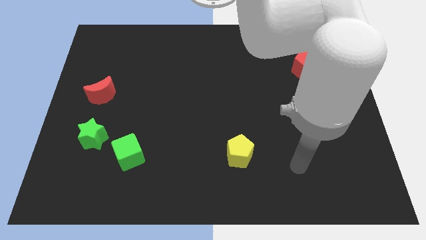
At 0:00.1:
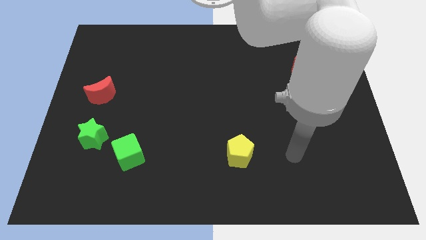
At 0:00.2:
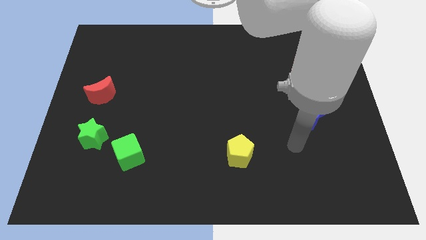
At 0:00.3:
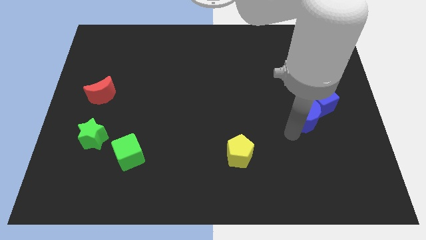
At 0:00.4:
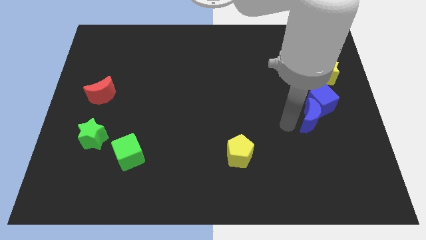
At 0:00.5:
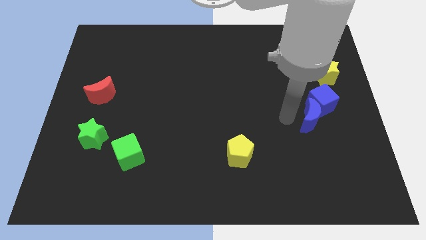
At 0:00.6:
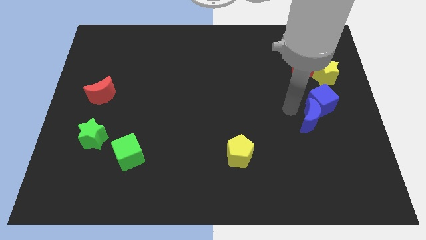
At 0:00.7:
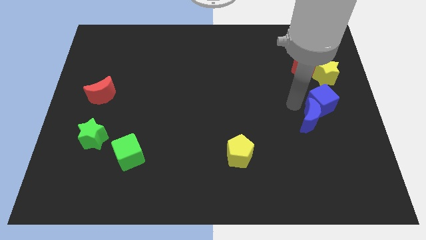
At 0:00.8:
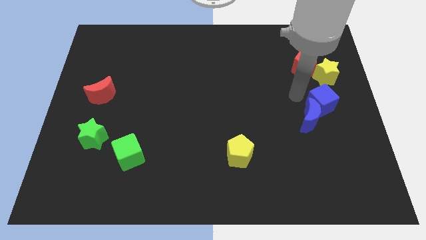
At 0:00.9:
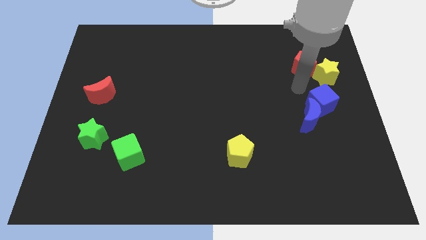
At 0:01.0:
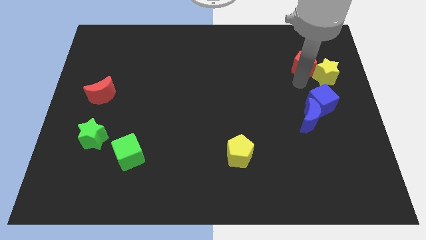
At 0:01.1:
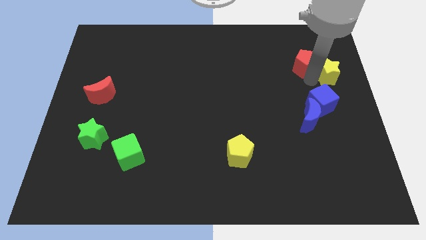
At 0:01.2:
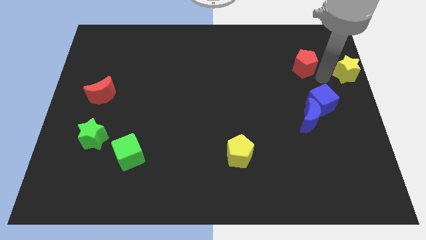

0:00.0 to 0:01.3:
move the red pentagon away from the yellow star

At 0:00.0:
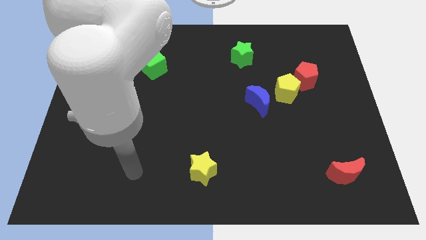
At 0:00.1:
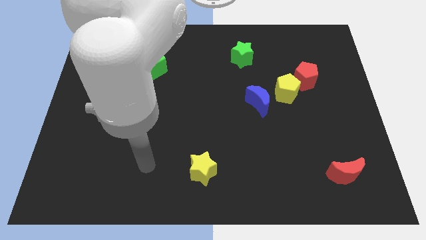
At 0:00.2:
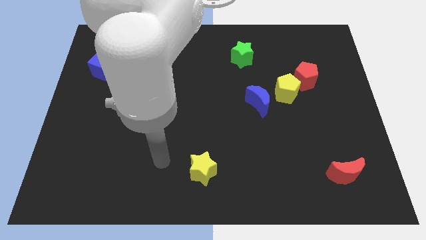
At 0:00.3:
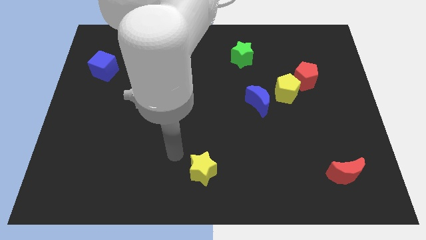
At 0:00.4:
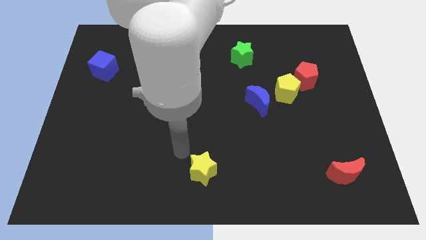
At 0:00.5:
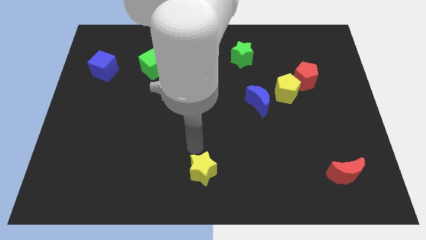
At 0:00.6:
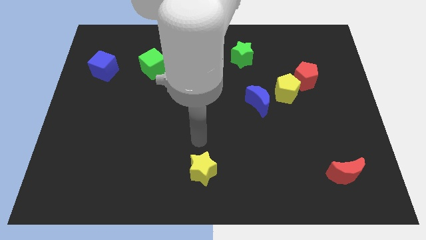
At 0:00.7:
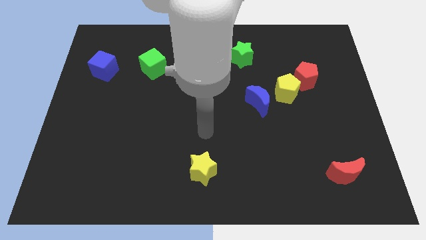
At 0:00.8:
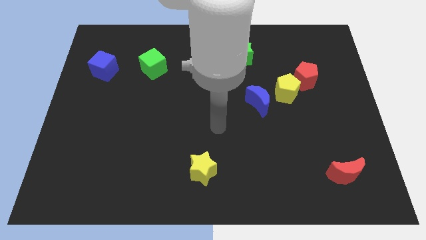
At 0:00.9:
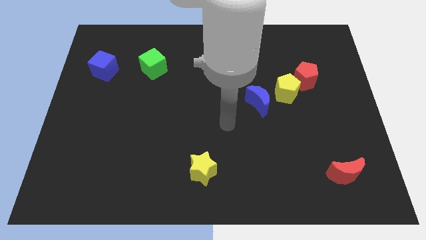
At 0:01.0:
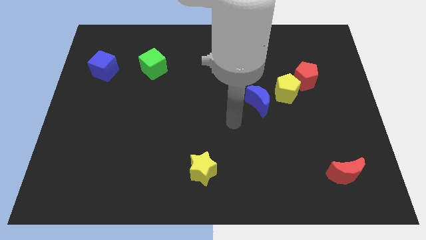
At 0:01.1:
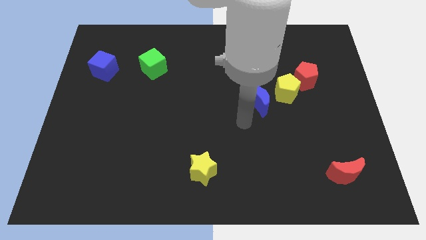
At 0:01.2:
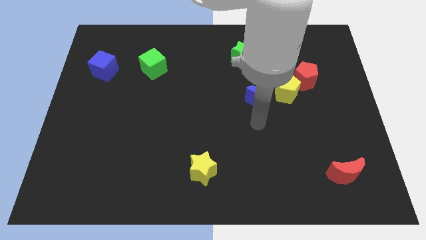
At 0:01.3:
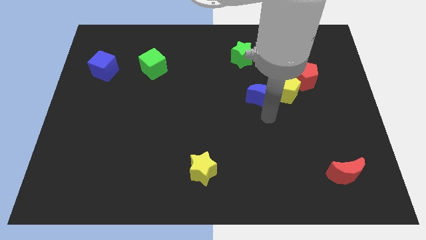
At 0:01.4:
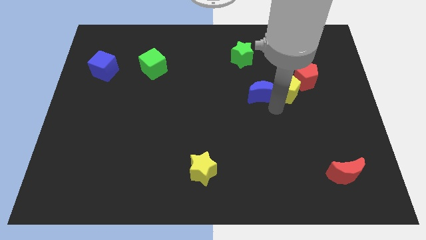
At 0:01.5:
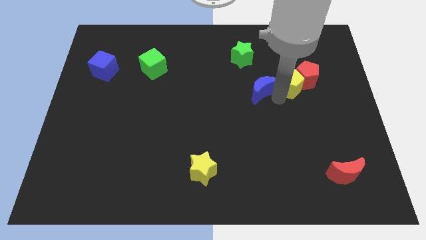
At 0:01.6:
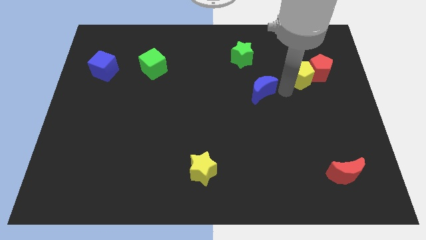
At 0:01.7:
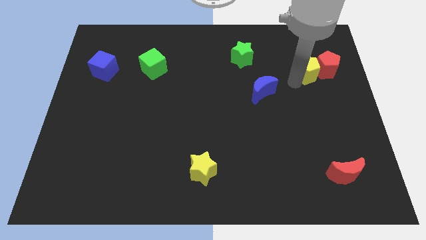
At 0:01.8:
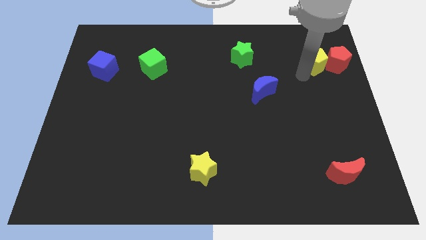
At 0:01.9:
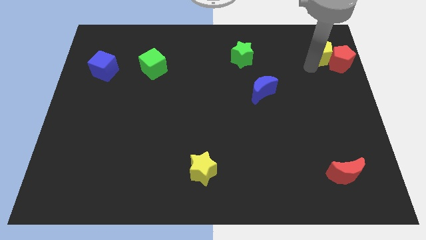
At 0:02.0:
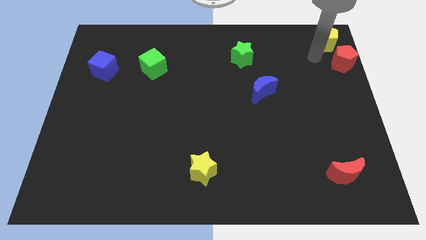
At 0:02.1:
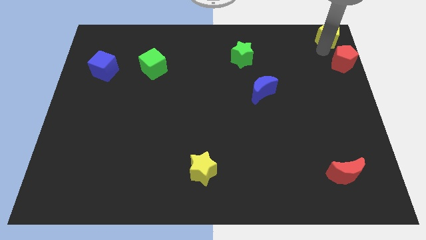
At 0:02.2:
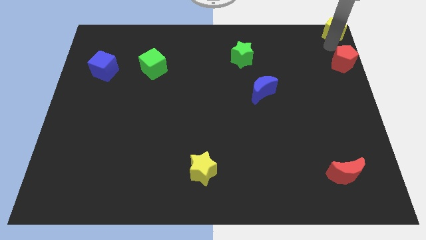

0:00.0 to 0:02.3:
separate the red pentagon from the yellow pentagon

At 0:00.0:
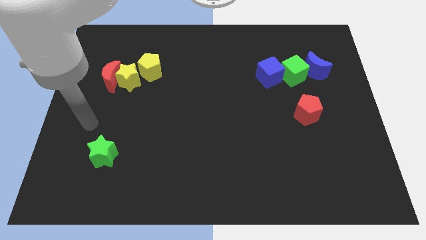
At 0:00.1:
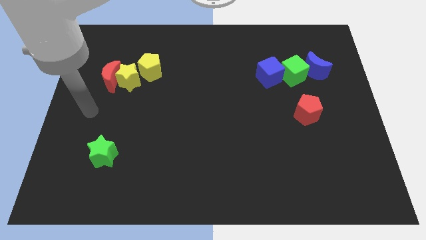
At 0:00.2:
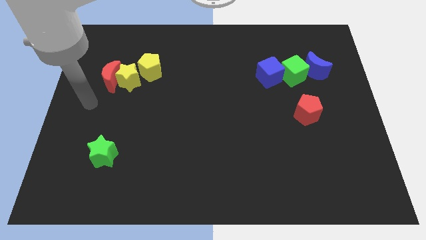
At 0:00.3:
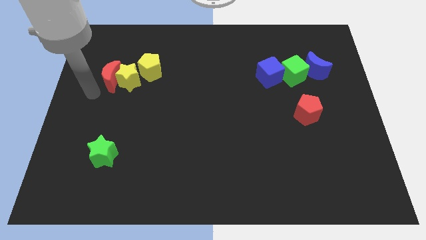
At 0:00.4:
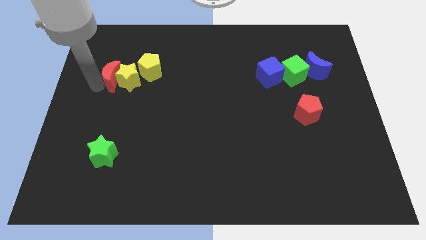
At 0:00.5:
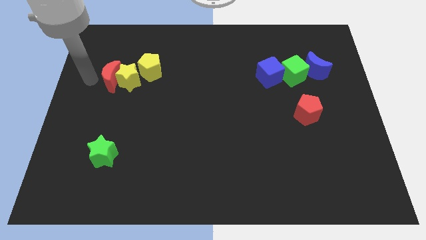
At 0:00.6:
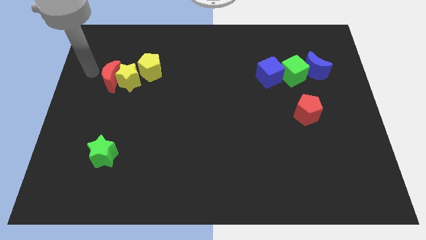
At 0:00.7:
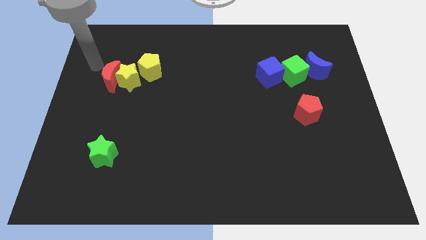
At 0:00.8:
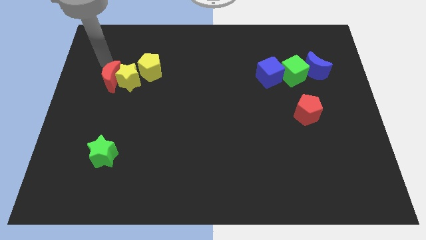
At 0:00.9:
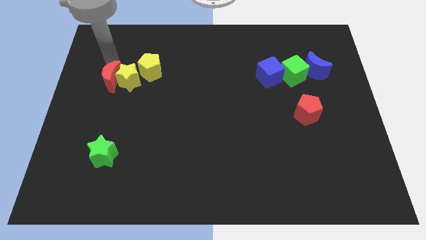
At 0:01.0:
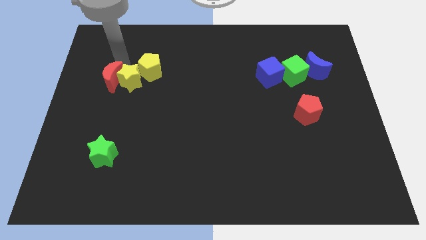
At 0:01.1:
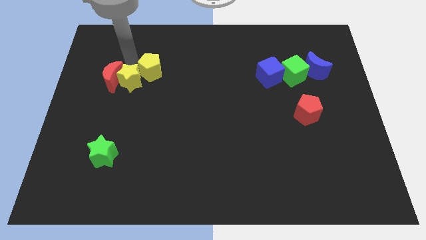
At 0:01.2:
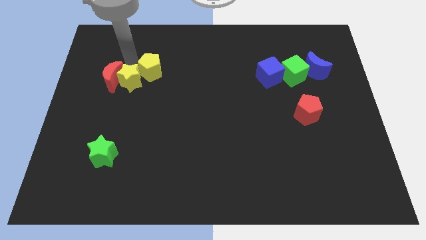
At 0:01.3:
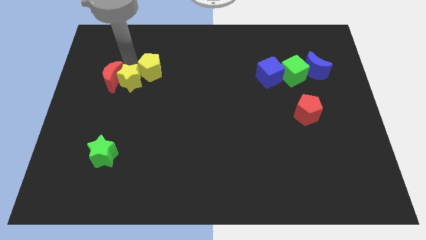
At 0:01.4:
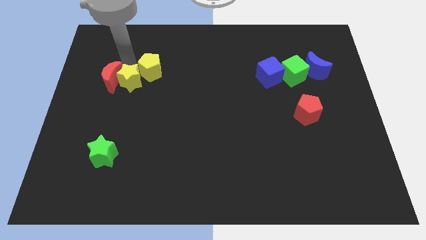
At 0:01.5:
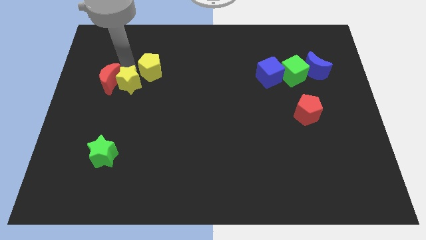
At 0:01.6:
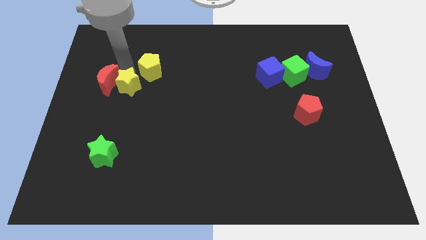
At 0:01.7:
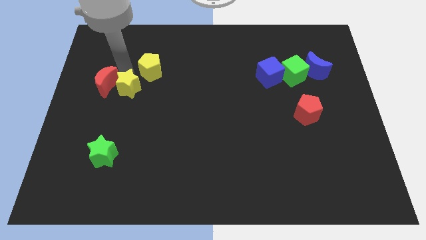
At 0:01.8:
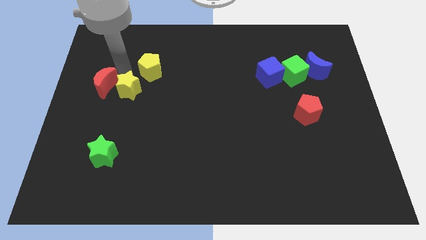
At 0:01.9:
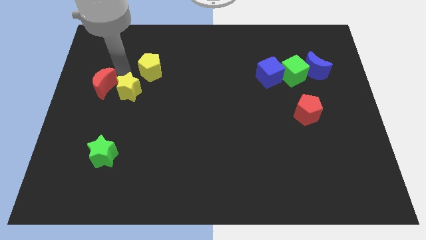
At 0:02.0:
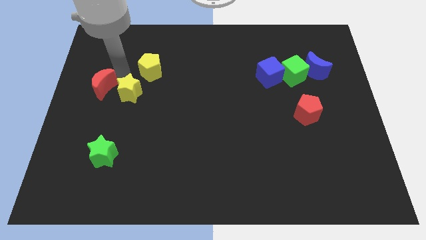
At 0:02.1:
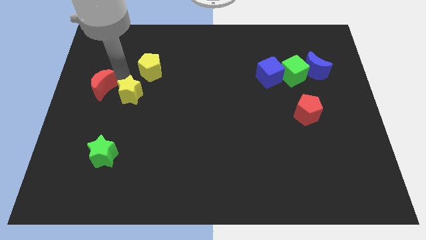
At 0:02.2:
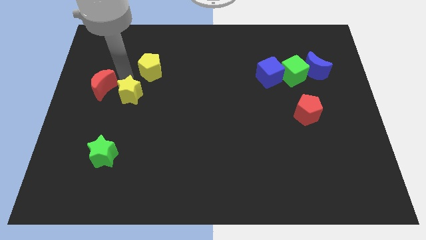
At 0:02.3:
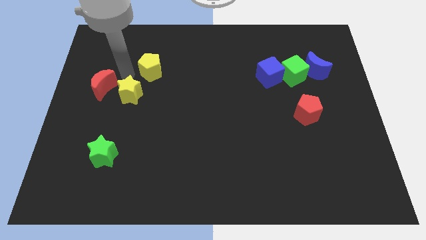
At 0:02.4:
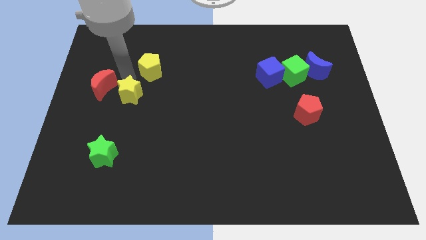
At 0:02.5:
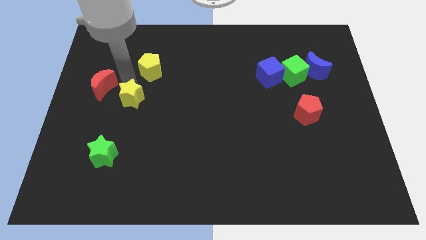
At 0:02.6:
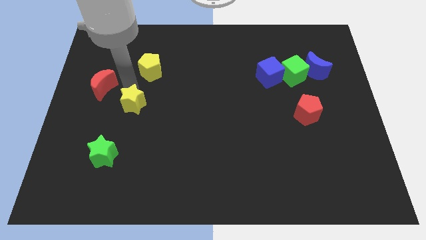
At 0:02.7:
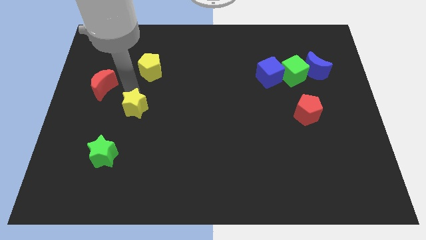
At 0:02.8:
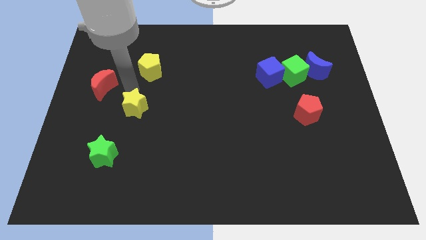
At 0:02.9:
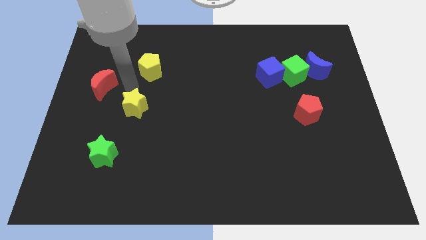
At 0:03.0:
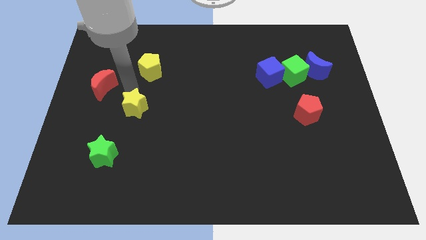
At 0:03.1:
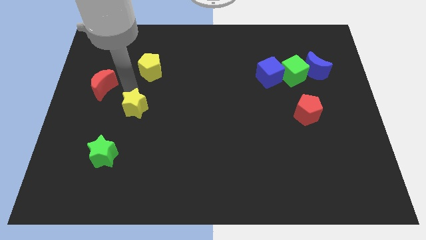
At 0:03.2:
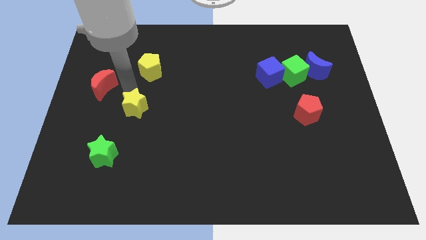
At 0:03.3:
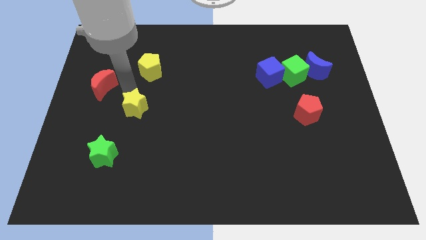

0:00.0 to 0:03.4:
pull the yellow star apart from the red moon and yellow pentagon

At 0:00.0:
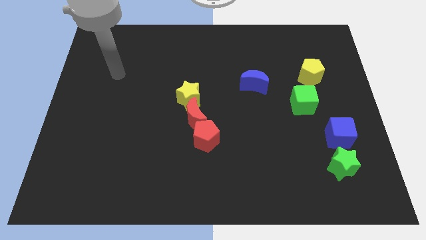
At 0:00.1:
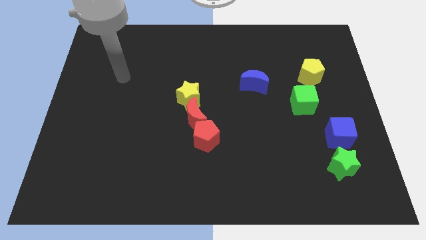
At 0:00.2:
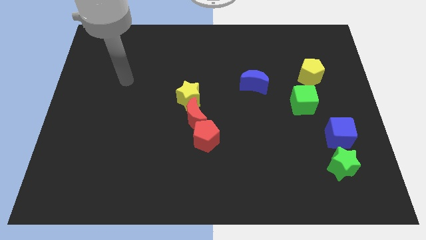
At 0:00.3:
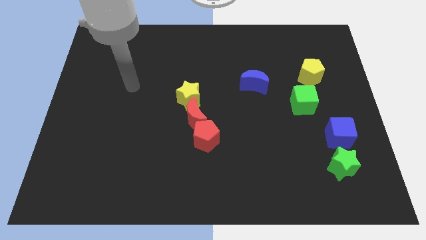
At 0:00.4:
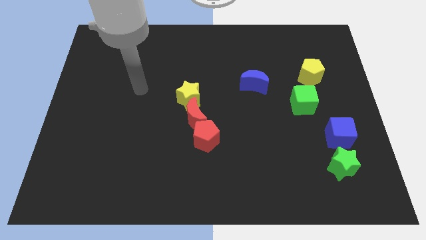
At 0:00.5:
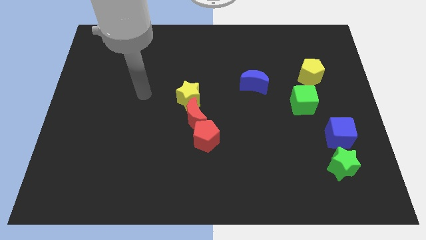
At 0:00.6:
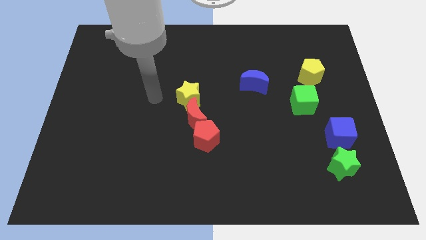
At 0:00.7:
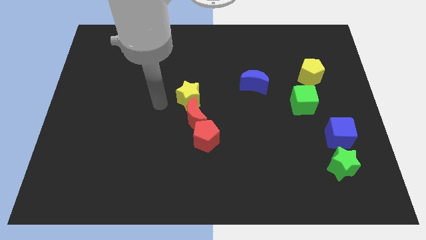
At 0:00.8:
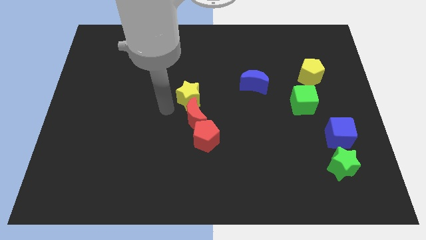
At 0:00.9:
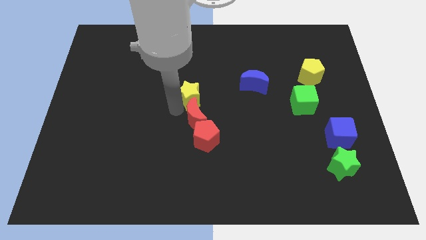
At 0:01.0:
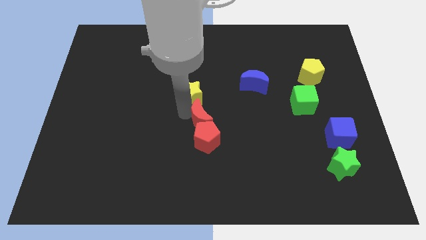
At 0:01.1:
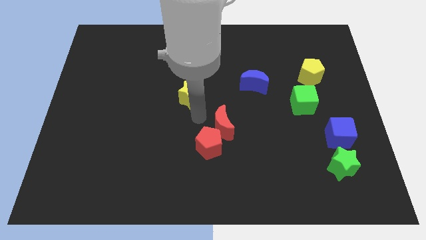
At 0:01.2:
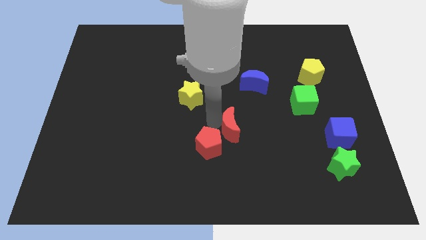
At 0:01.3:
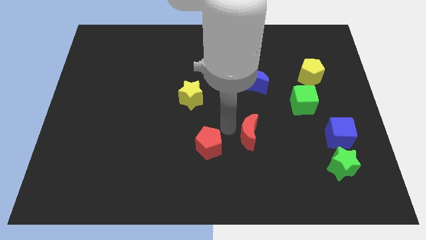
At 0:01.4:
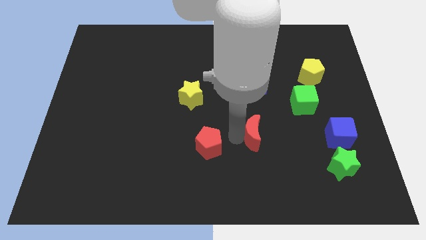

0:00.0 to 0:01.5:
separate the red pentagon from the red moon

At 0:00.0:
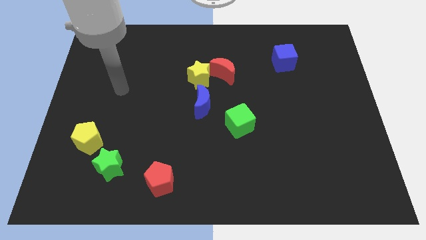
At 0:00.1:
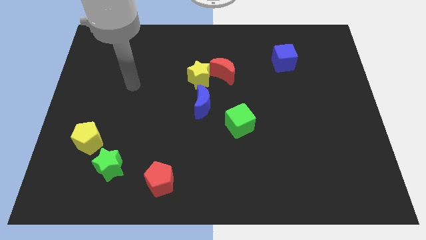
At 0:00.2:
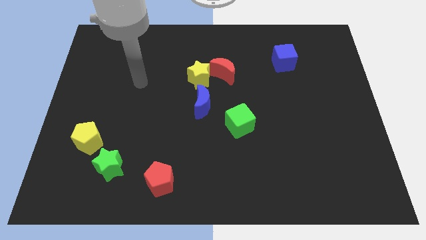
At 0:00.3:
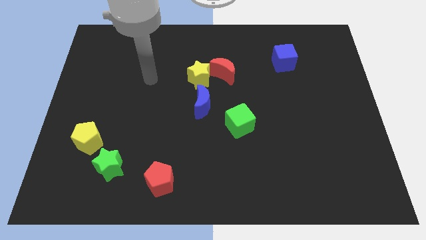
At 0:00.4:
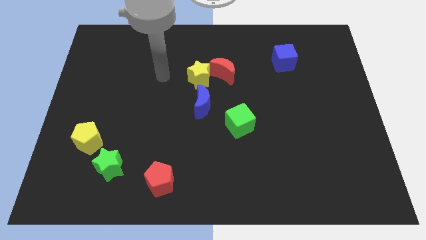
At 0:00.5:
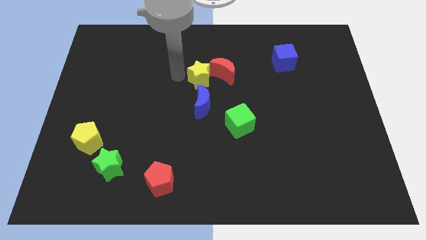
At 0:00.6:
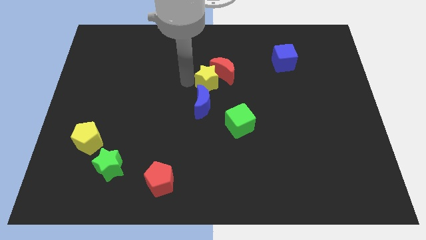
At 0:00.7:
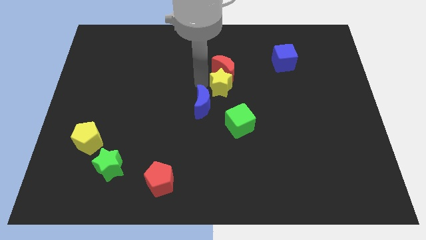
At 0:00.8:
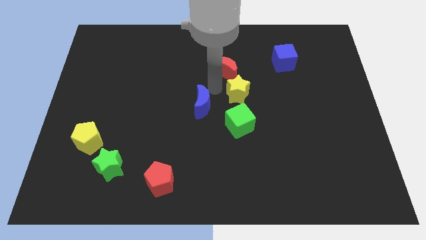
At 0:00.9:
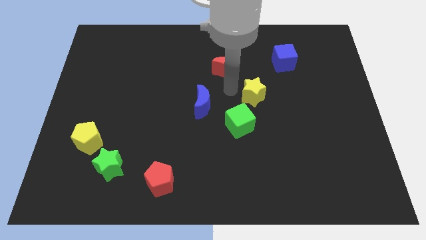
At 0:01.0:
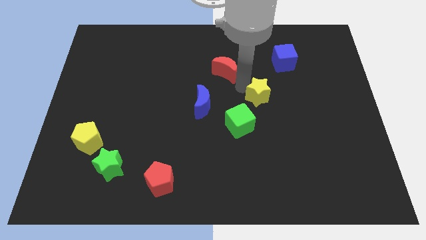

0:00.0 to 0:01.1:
separate the red moon from the yellow star
